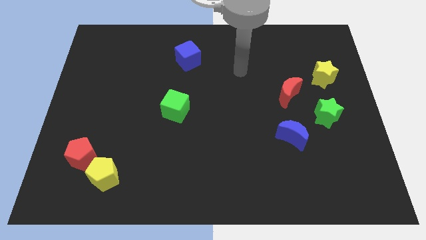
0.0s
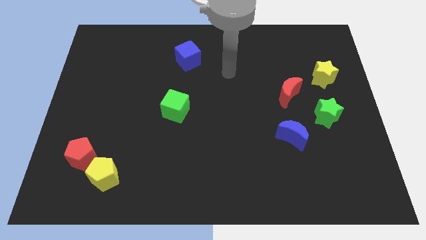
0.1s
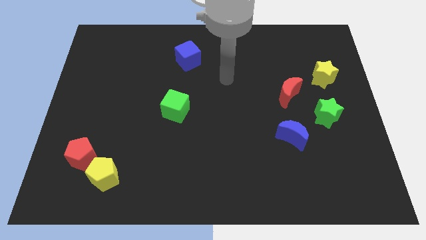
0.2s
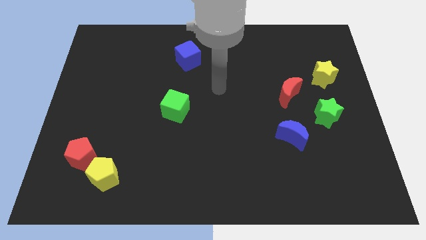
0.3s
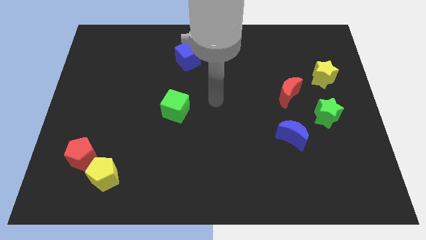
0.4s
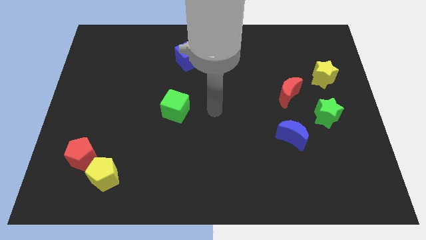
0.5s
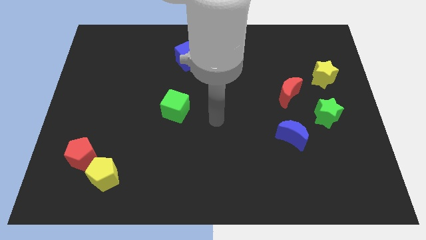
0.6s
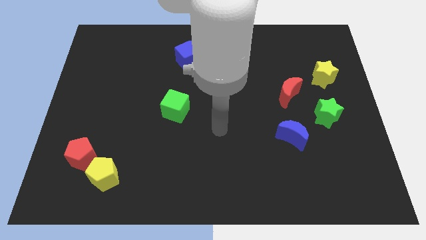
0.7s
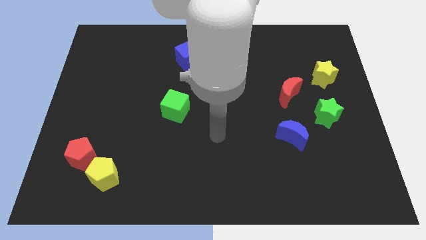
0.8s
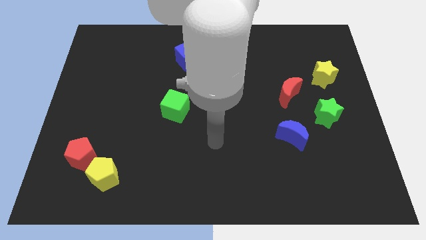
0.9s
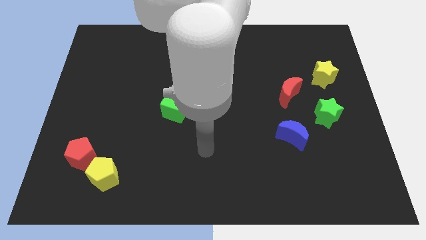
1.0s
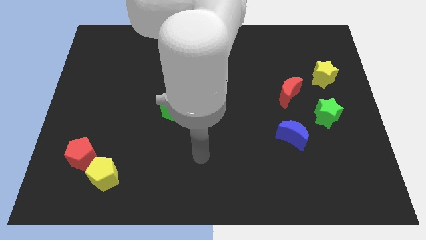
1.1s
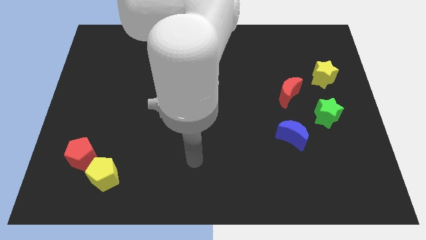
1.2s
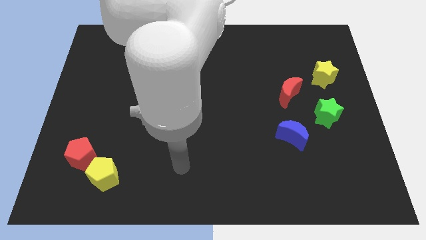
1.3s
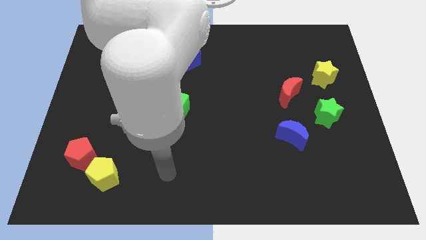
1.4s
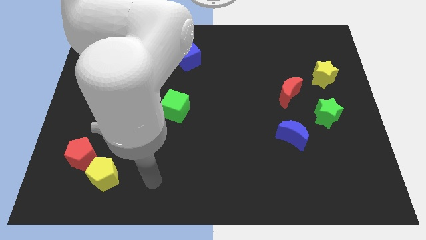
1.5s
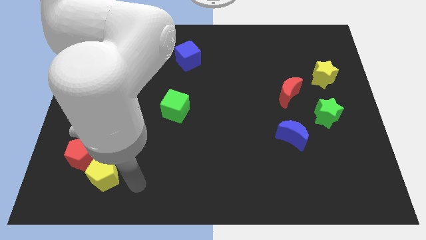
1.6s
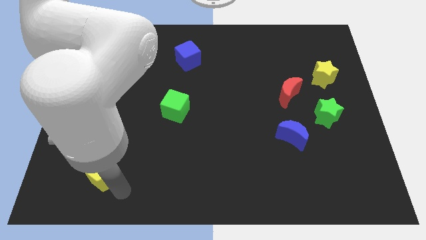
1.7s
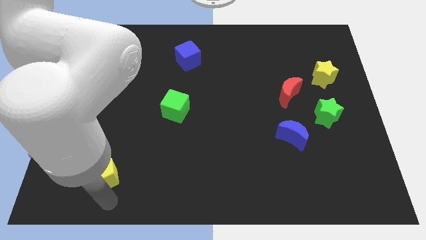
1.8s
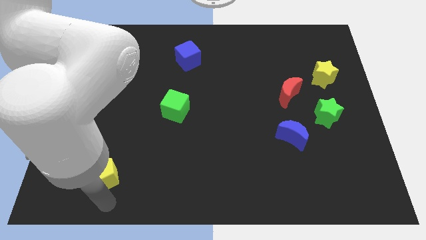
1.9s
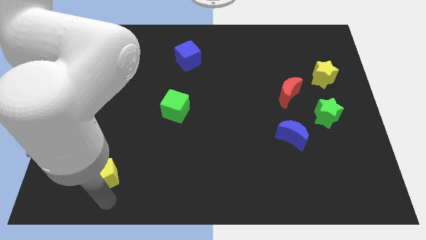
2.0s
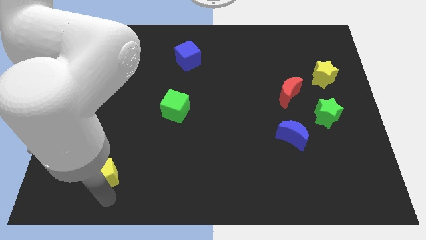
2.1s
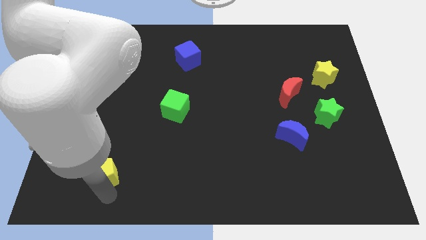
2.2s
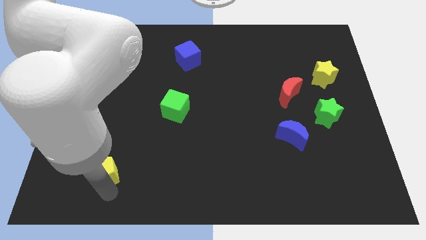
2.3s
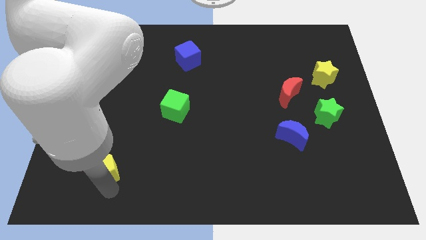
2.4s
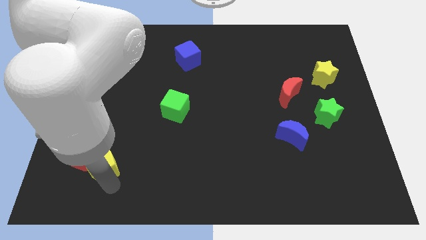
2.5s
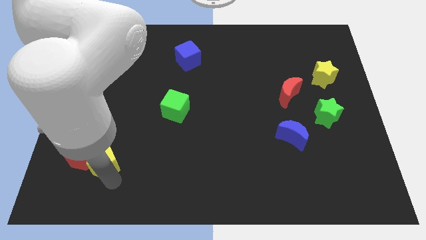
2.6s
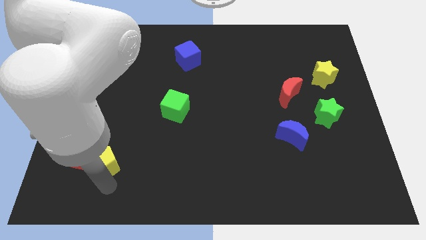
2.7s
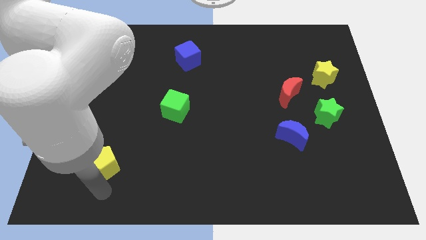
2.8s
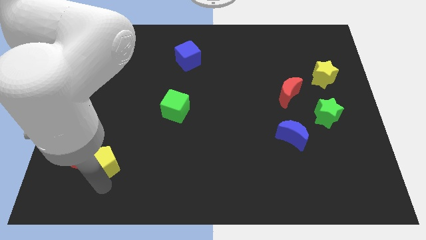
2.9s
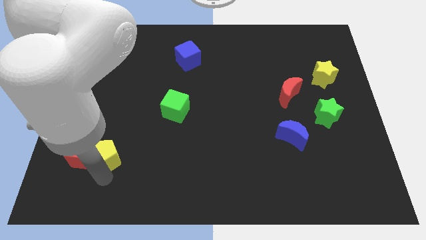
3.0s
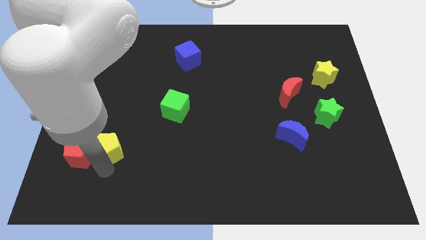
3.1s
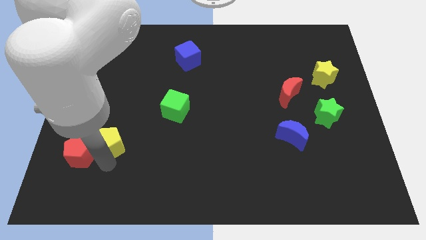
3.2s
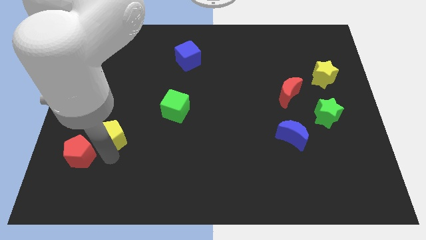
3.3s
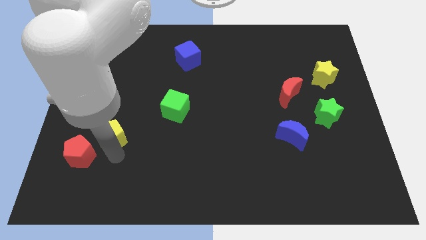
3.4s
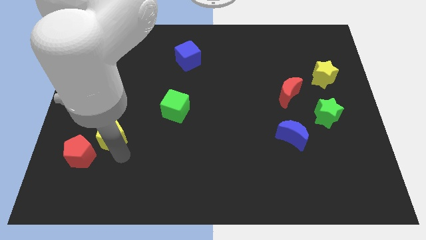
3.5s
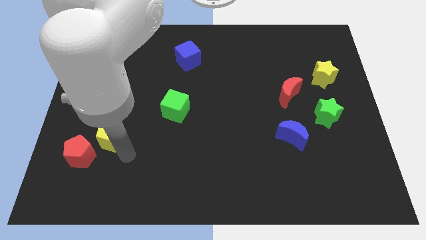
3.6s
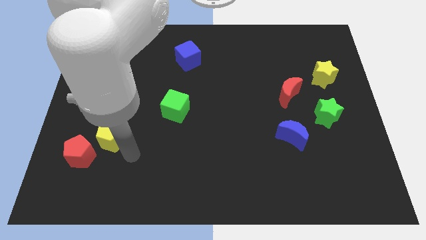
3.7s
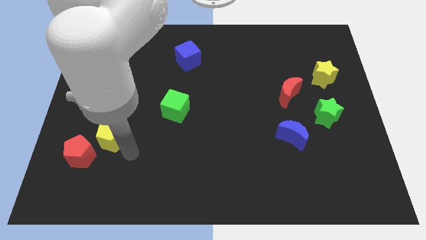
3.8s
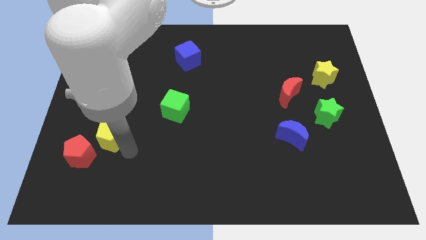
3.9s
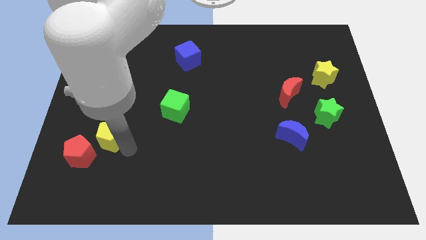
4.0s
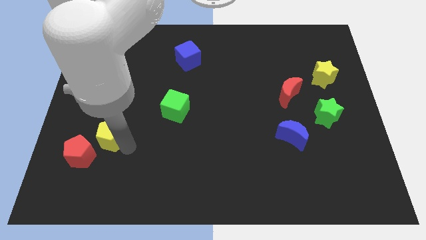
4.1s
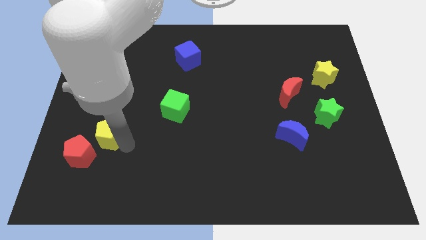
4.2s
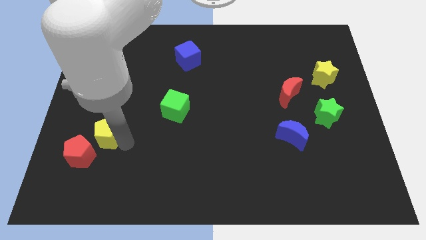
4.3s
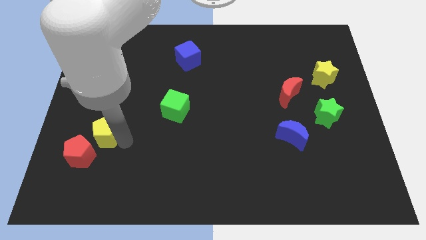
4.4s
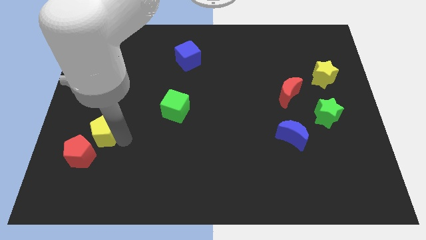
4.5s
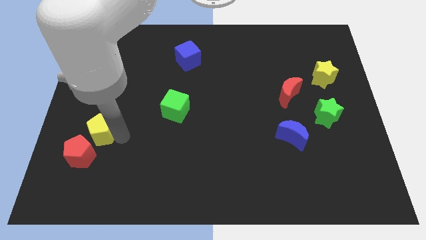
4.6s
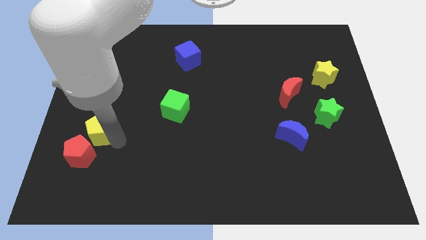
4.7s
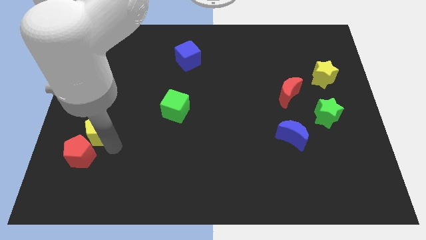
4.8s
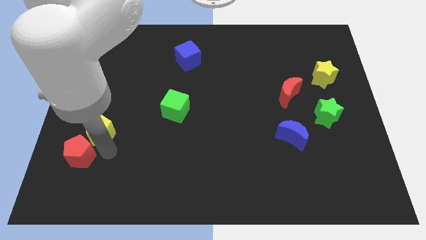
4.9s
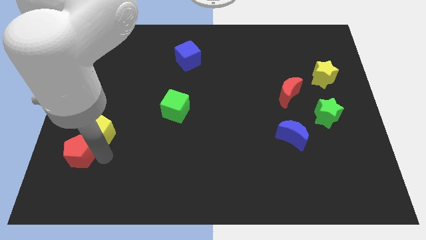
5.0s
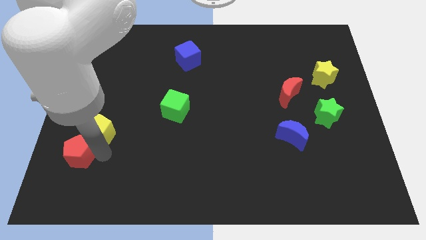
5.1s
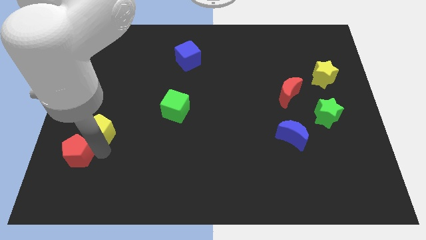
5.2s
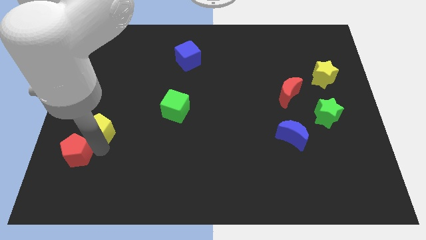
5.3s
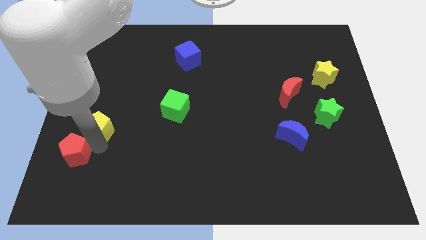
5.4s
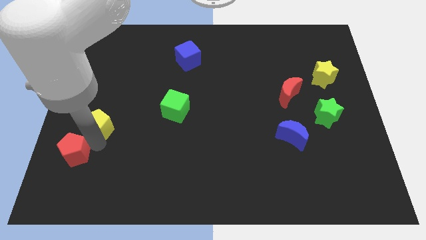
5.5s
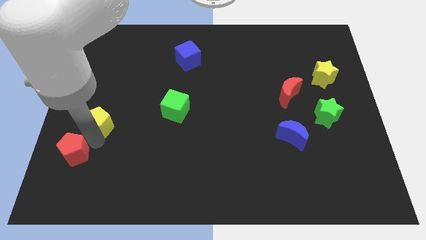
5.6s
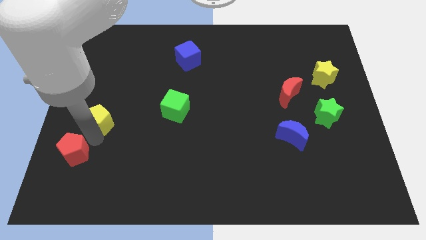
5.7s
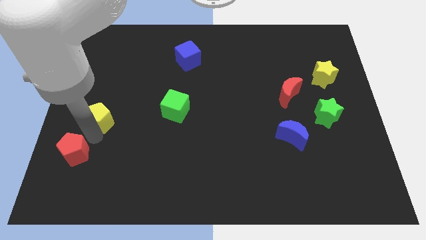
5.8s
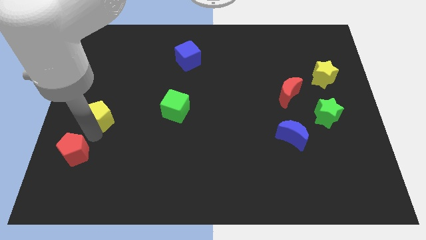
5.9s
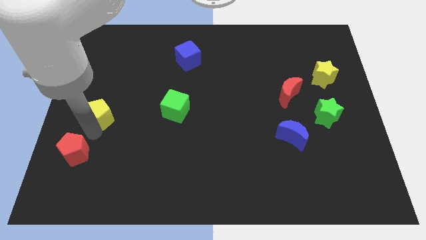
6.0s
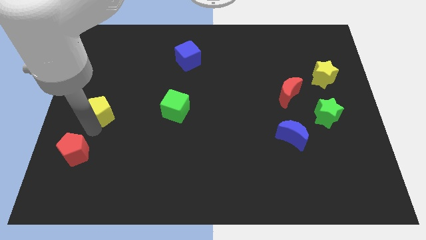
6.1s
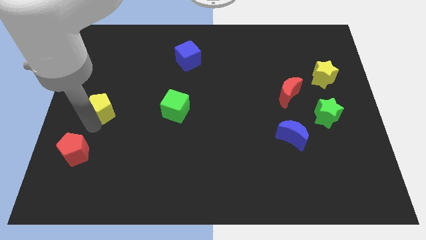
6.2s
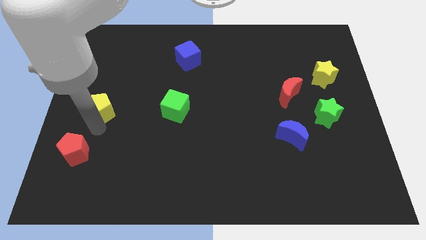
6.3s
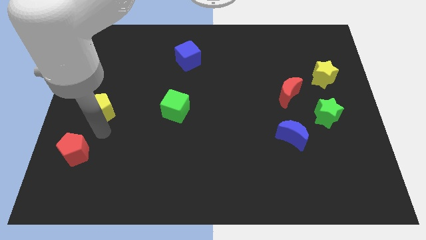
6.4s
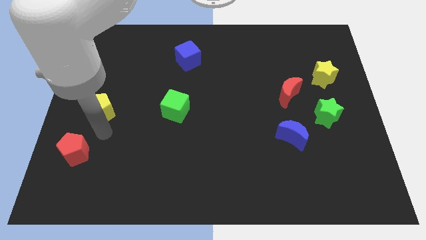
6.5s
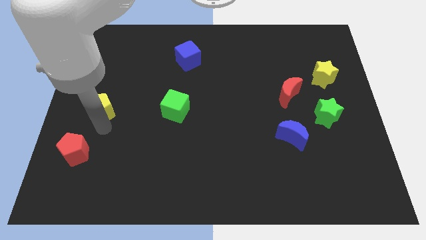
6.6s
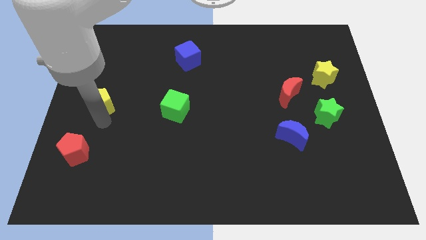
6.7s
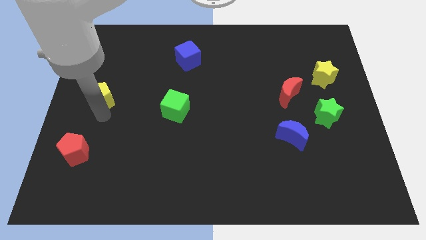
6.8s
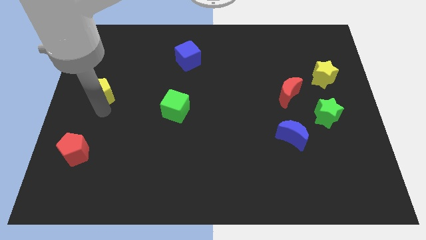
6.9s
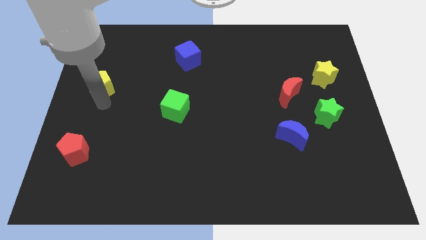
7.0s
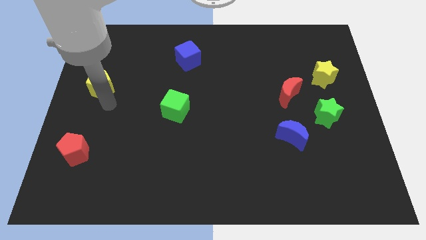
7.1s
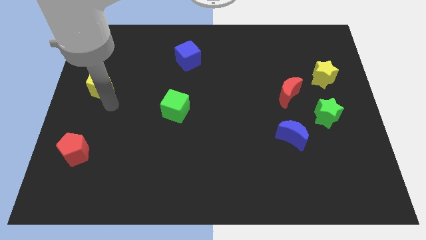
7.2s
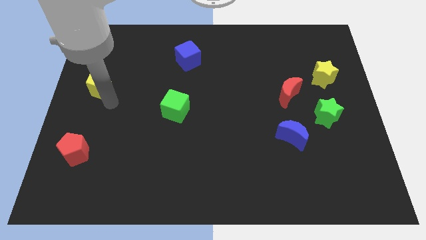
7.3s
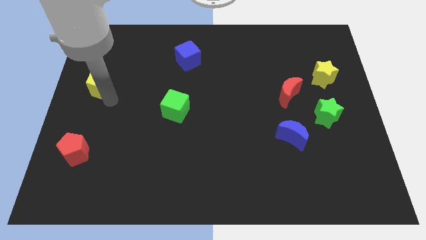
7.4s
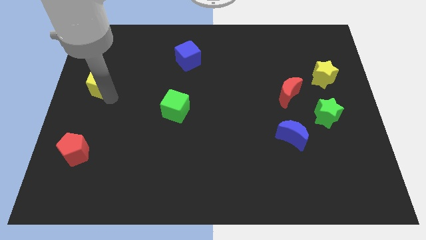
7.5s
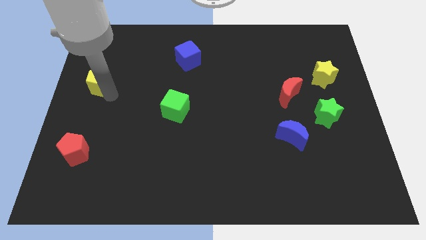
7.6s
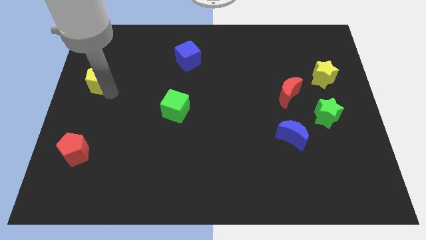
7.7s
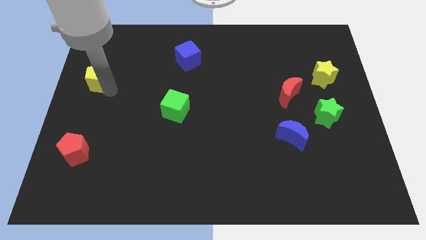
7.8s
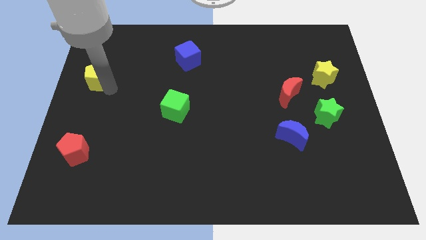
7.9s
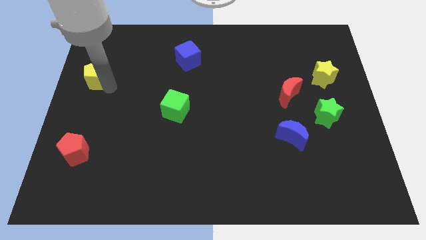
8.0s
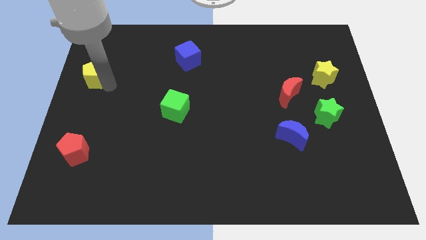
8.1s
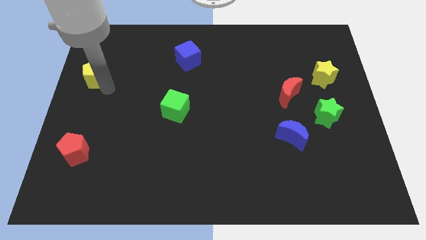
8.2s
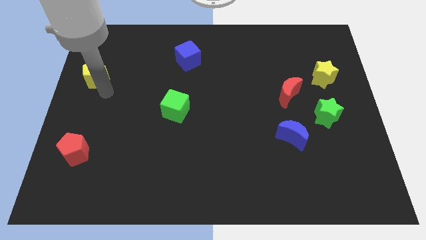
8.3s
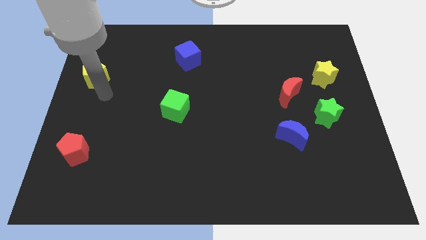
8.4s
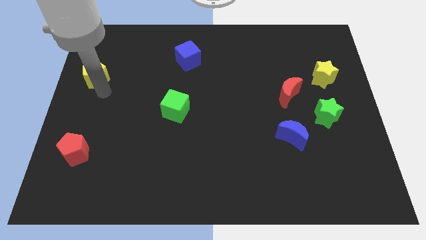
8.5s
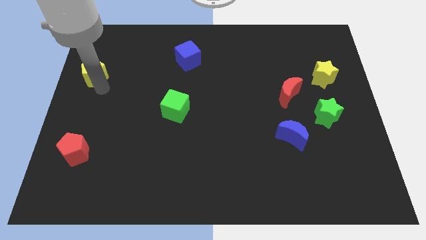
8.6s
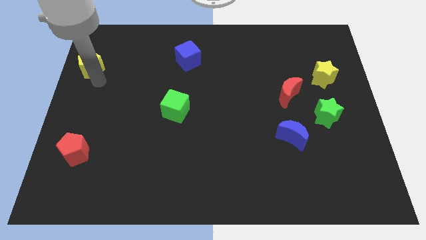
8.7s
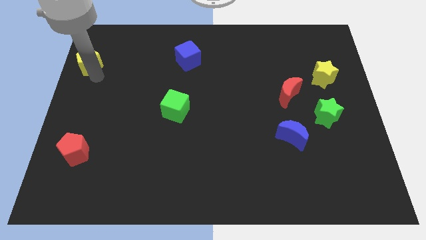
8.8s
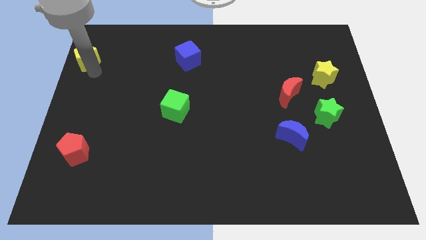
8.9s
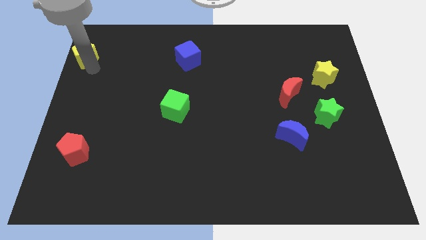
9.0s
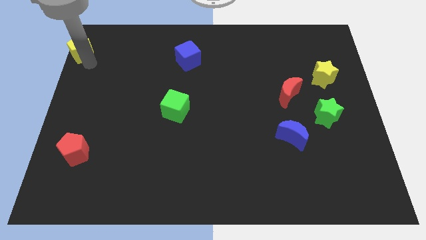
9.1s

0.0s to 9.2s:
move the yellow pentagon to the upper left corner
